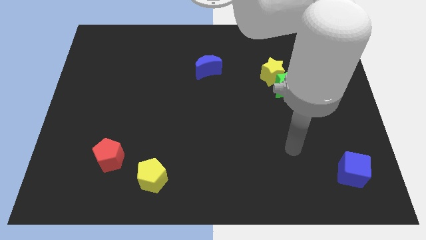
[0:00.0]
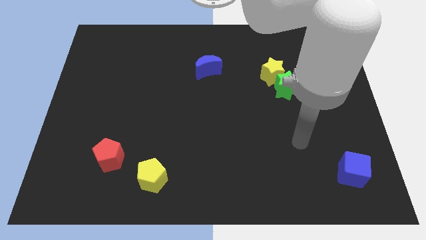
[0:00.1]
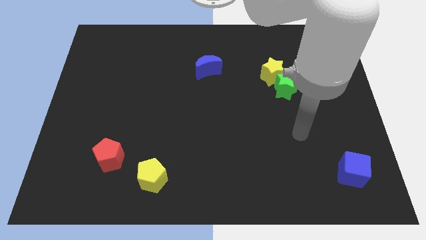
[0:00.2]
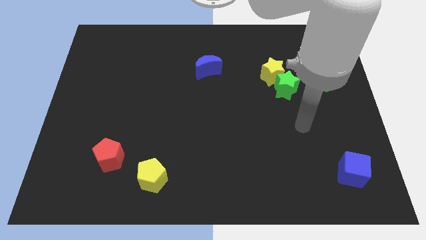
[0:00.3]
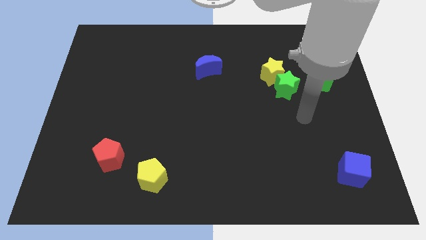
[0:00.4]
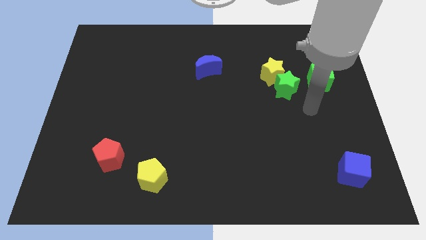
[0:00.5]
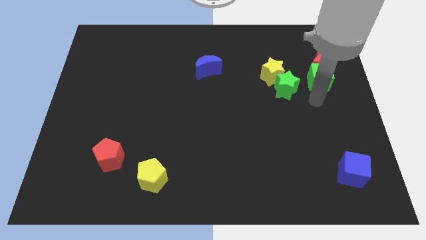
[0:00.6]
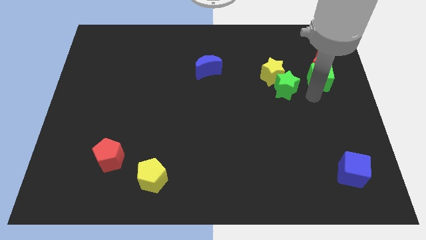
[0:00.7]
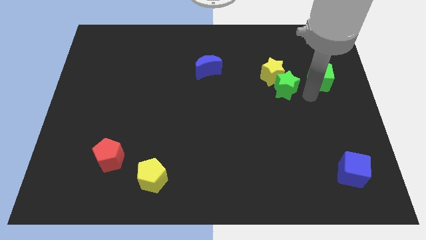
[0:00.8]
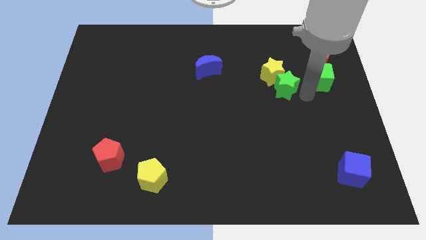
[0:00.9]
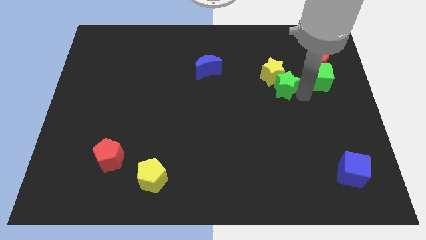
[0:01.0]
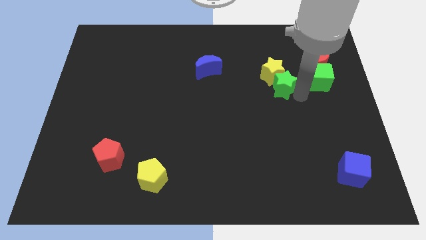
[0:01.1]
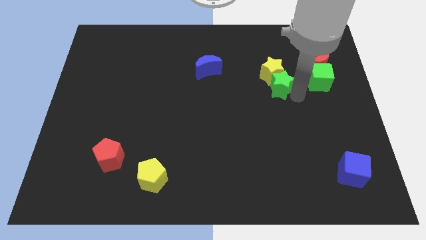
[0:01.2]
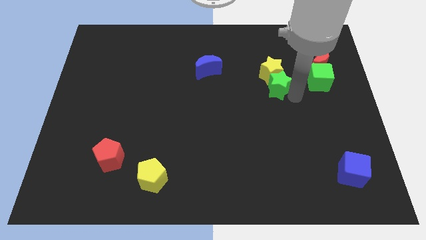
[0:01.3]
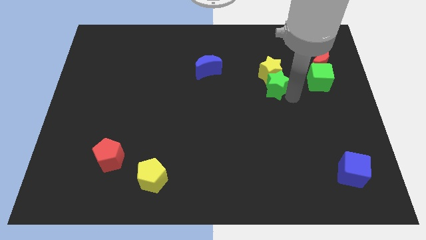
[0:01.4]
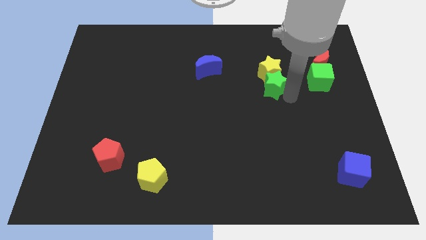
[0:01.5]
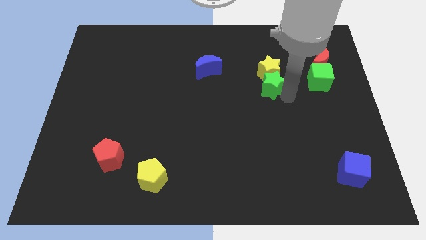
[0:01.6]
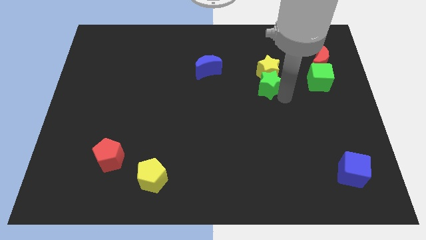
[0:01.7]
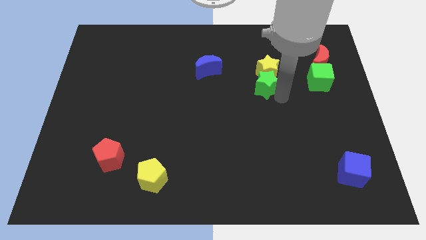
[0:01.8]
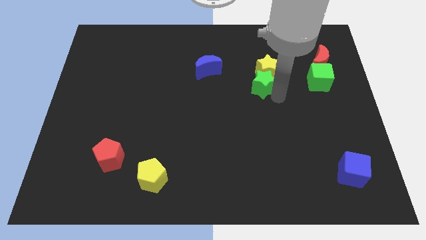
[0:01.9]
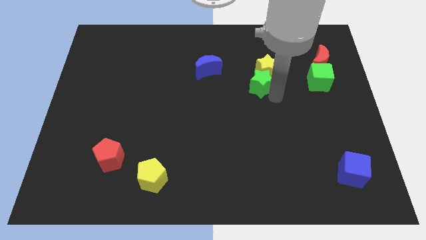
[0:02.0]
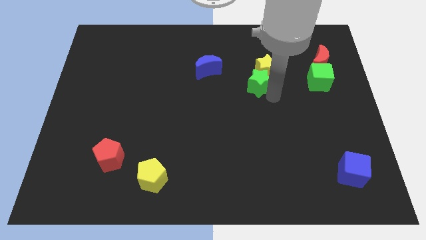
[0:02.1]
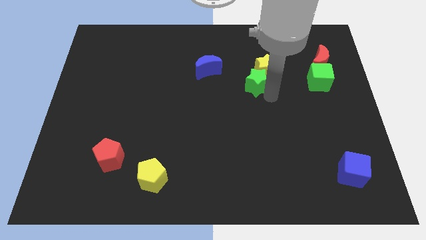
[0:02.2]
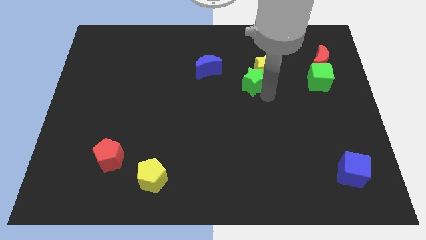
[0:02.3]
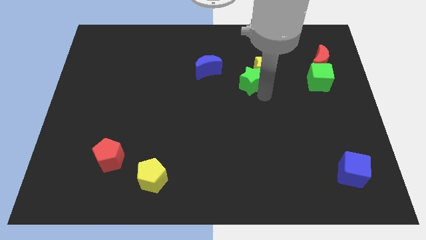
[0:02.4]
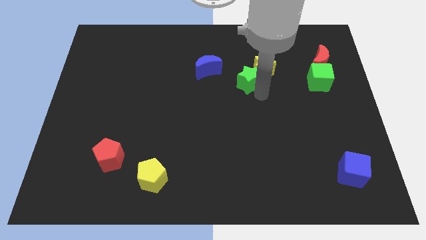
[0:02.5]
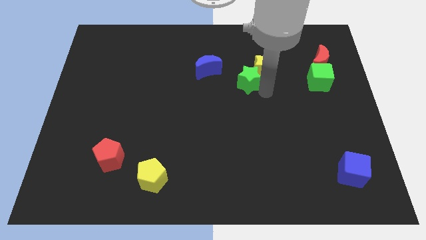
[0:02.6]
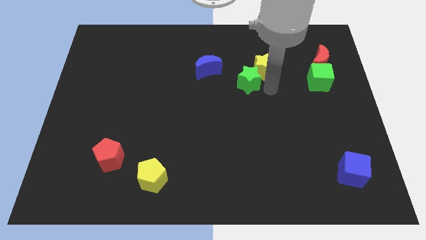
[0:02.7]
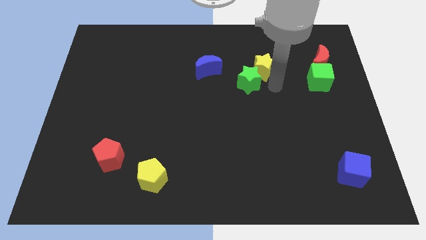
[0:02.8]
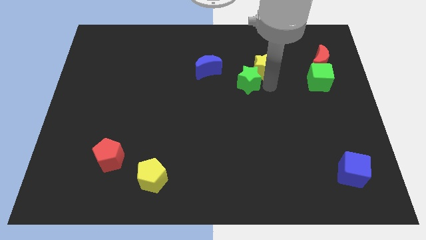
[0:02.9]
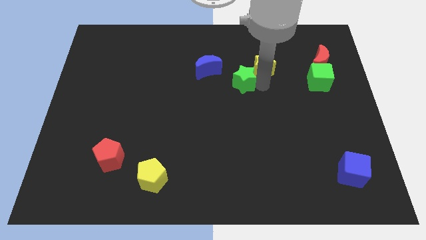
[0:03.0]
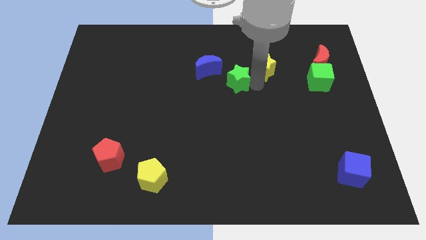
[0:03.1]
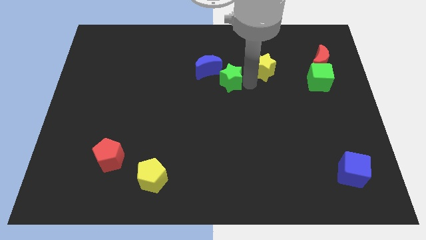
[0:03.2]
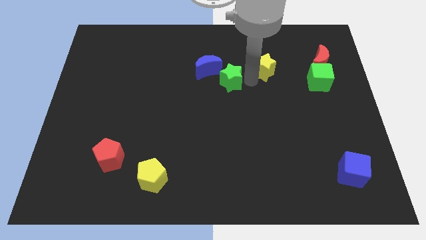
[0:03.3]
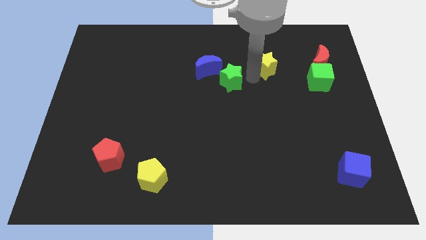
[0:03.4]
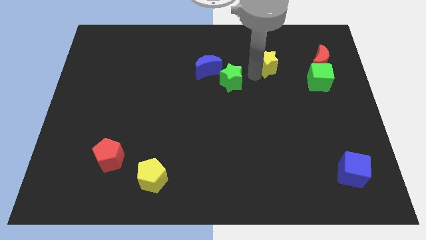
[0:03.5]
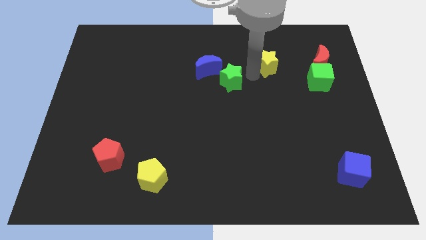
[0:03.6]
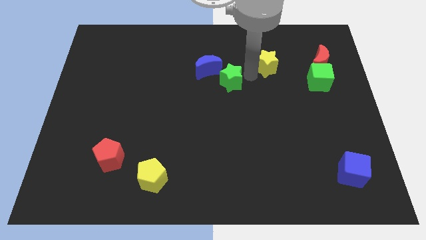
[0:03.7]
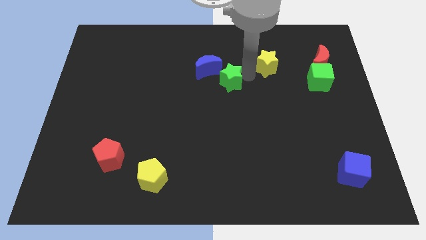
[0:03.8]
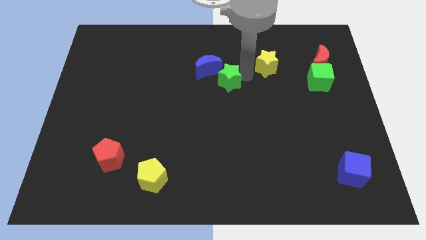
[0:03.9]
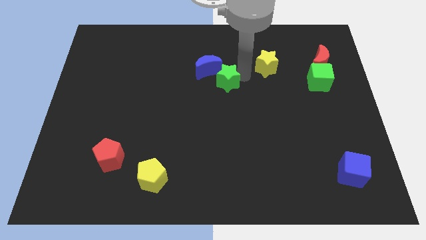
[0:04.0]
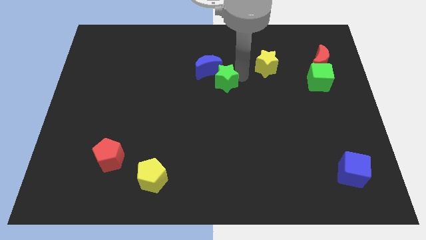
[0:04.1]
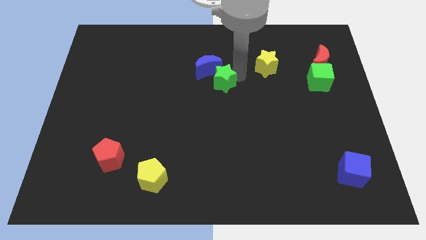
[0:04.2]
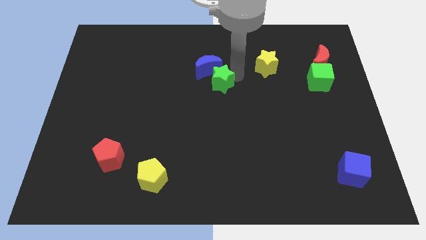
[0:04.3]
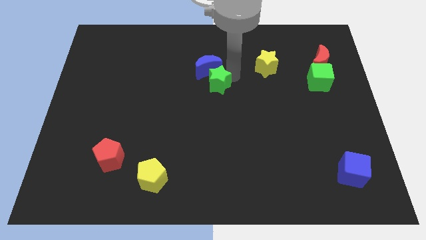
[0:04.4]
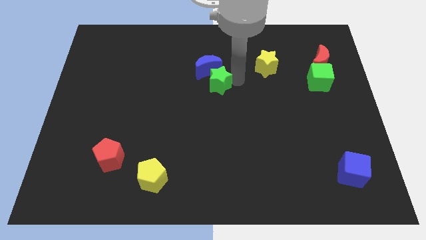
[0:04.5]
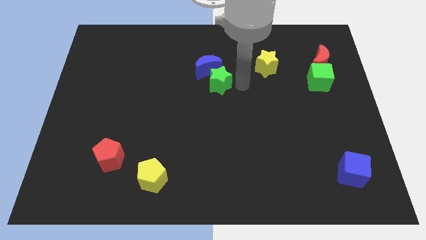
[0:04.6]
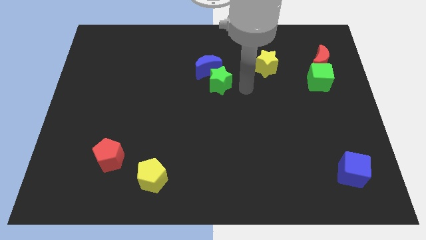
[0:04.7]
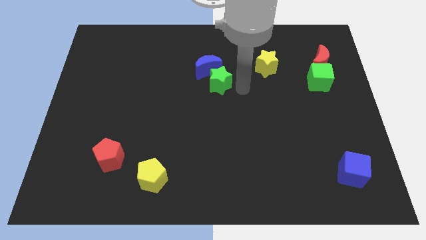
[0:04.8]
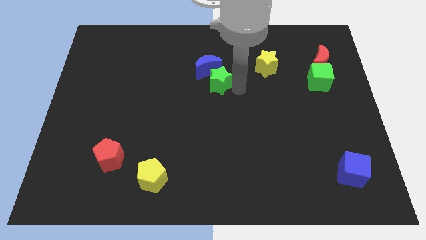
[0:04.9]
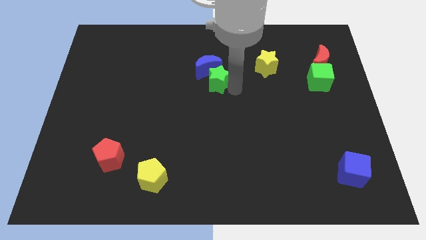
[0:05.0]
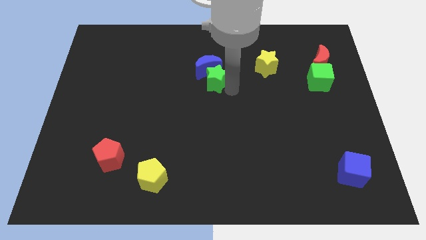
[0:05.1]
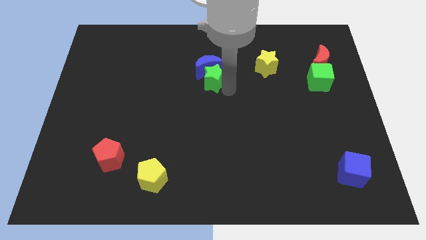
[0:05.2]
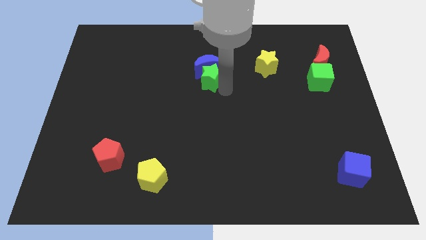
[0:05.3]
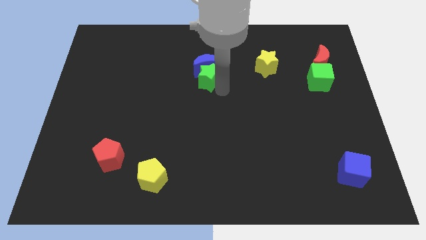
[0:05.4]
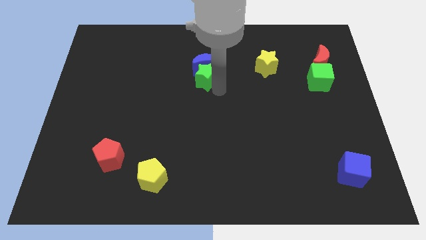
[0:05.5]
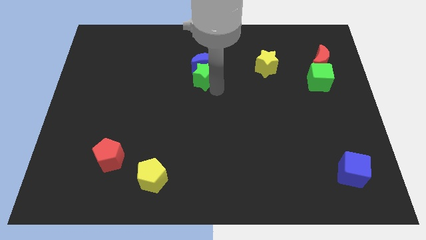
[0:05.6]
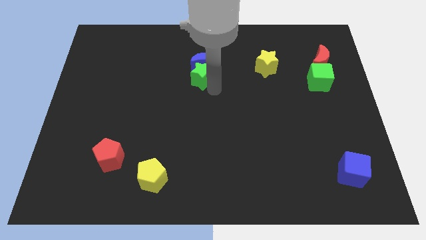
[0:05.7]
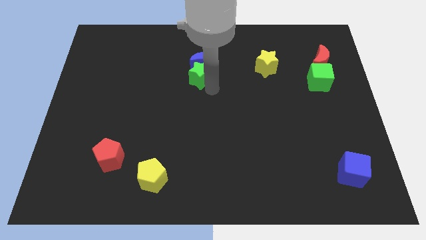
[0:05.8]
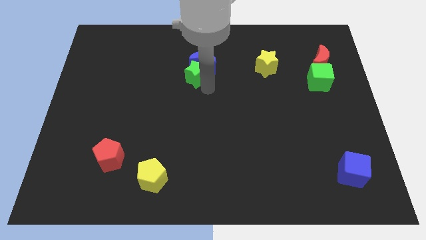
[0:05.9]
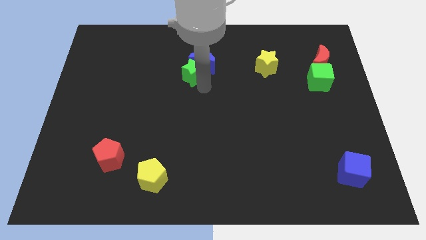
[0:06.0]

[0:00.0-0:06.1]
move the green star to the left of the blue moon

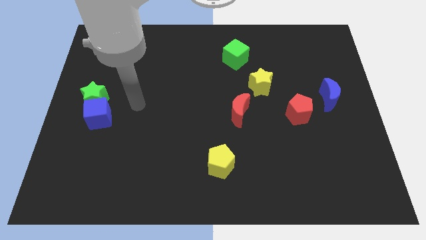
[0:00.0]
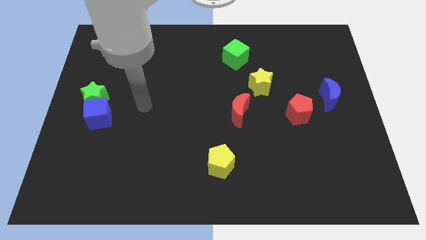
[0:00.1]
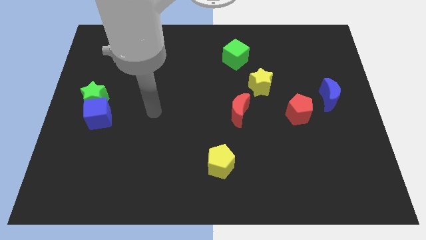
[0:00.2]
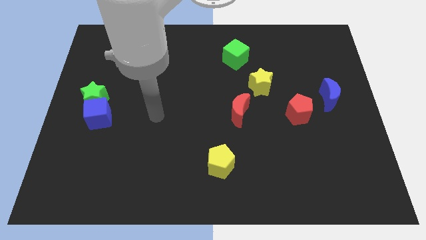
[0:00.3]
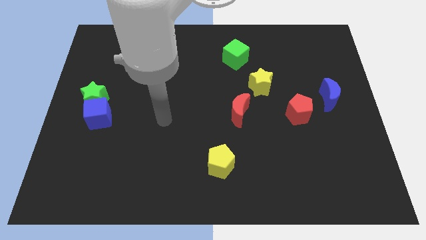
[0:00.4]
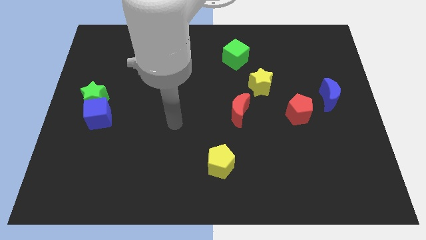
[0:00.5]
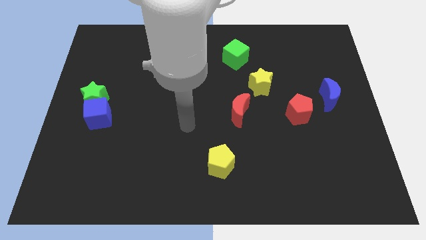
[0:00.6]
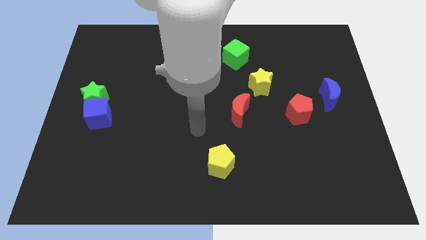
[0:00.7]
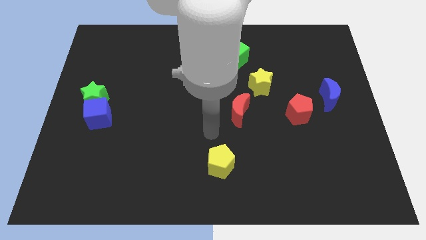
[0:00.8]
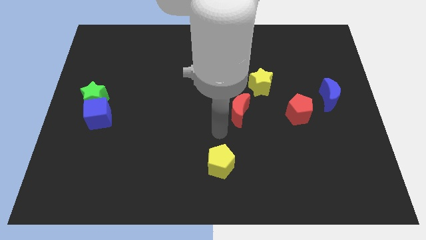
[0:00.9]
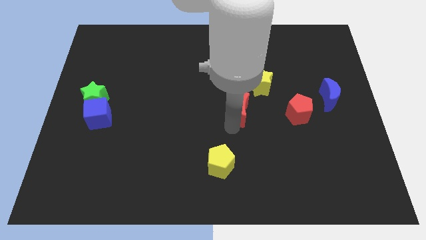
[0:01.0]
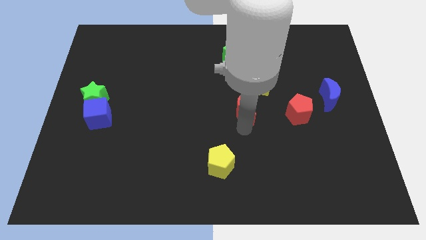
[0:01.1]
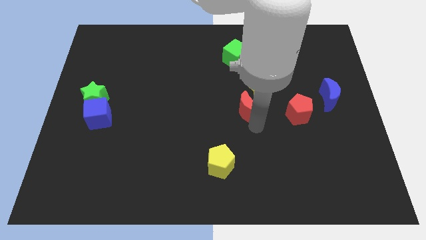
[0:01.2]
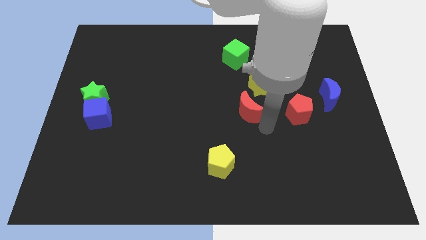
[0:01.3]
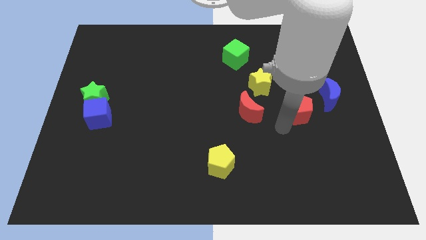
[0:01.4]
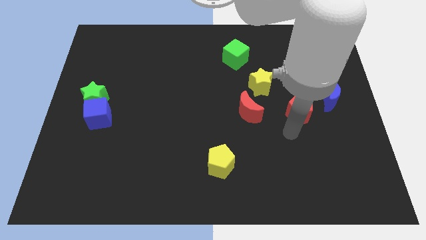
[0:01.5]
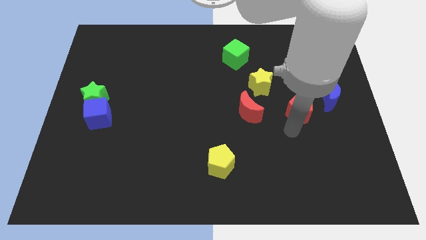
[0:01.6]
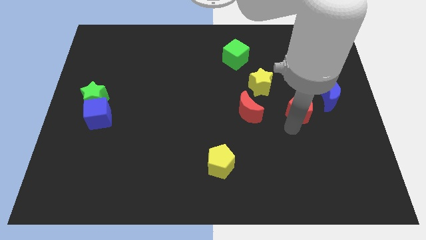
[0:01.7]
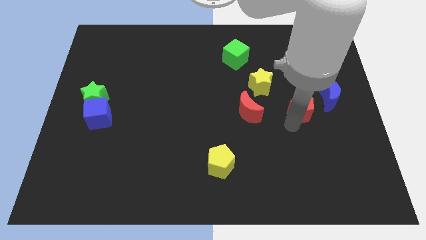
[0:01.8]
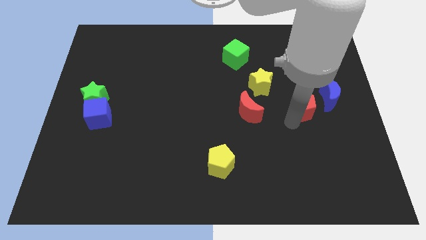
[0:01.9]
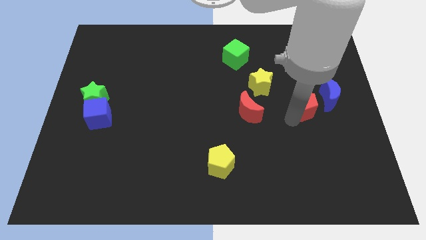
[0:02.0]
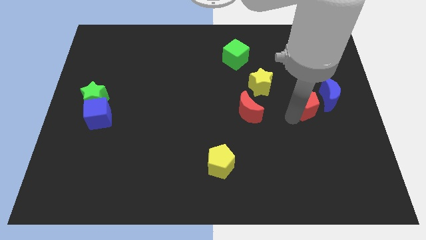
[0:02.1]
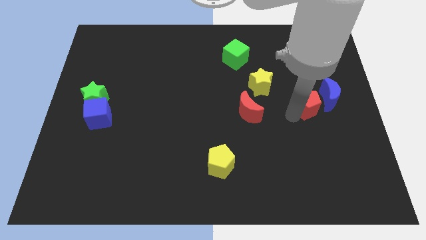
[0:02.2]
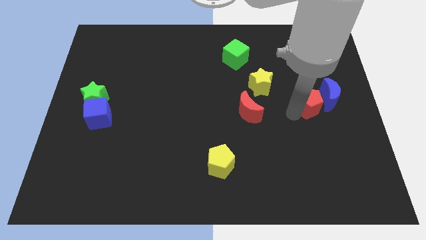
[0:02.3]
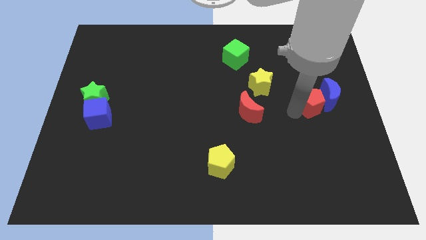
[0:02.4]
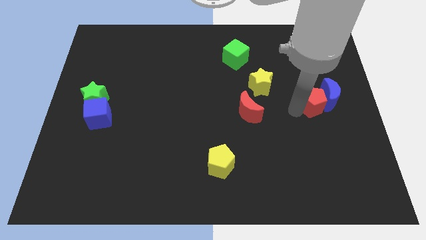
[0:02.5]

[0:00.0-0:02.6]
put the red pentagon diagonally up and to the left of the blue moon
